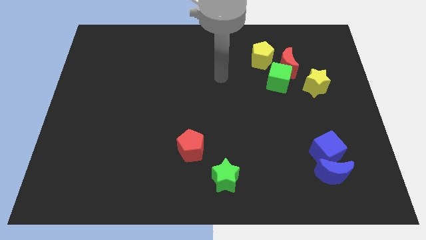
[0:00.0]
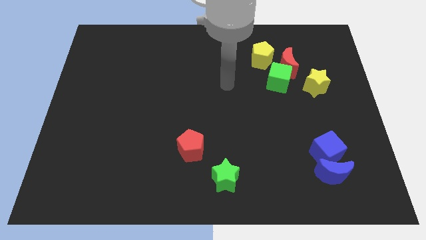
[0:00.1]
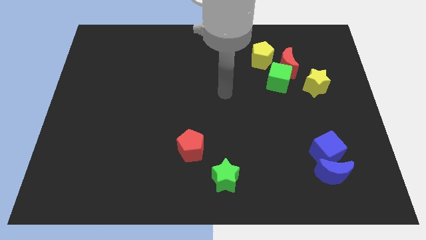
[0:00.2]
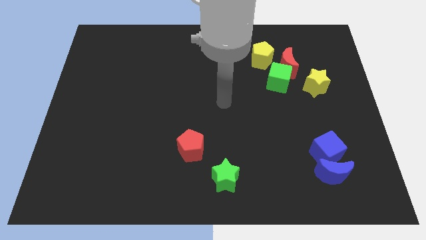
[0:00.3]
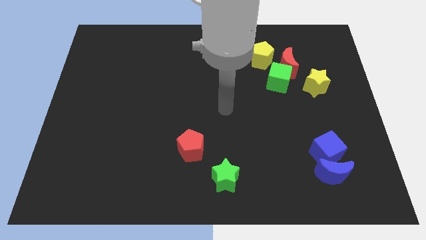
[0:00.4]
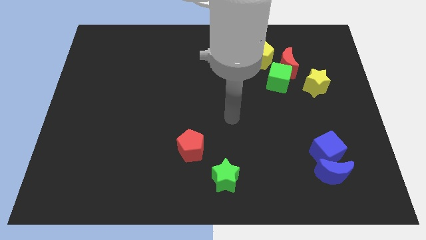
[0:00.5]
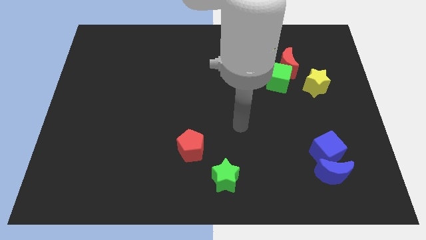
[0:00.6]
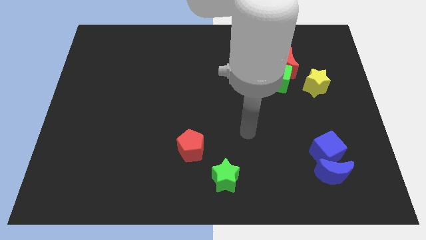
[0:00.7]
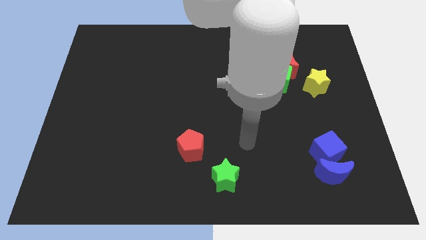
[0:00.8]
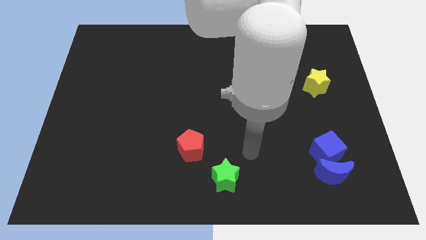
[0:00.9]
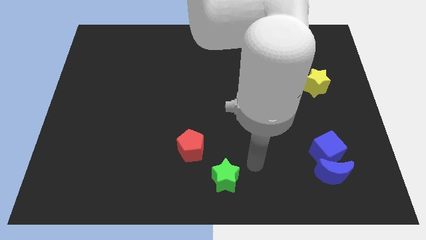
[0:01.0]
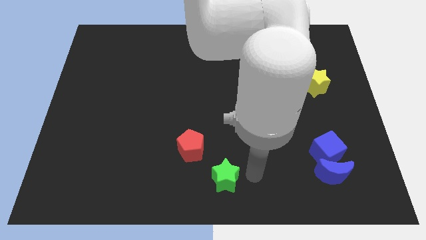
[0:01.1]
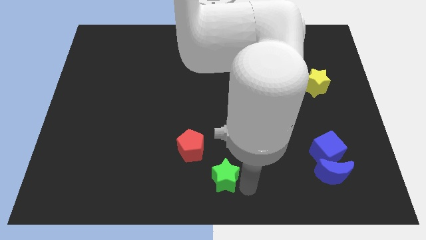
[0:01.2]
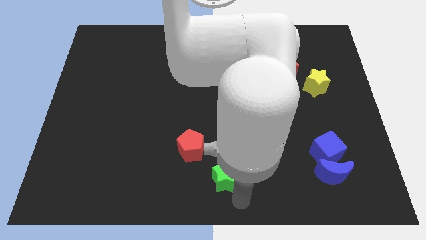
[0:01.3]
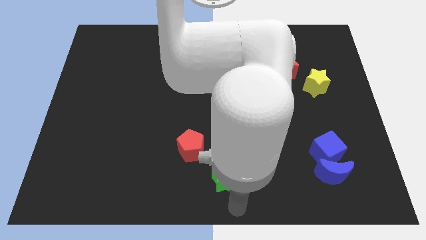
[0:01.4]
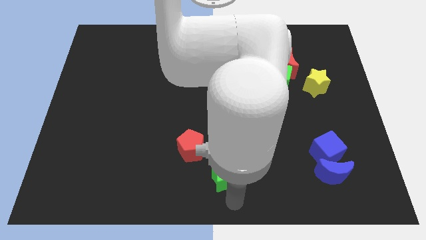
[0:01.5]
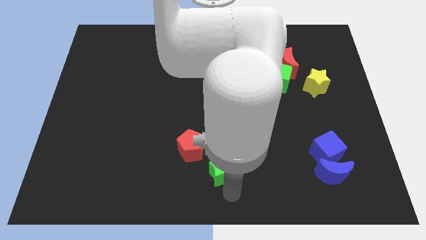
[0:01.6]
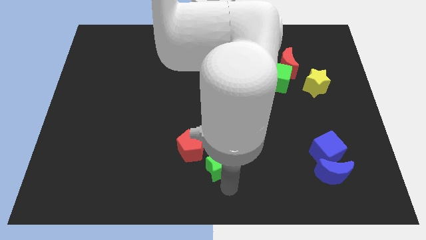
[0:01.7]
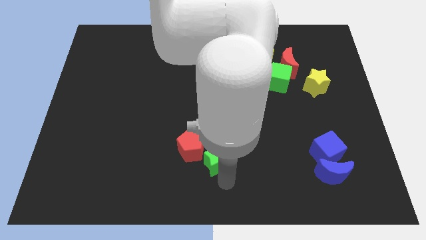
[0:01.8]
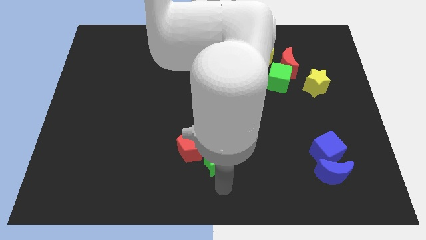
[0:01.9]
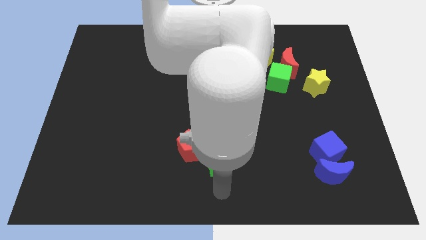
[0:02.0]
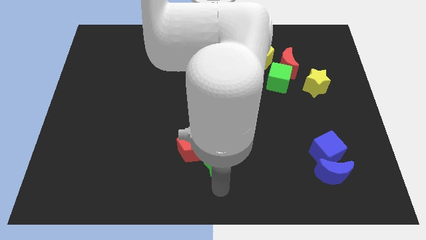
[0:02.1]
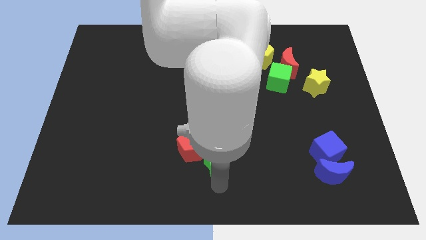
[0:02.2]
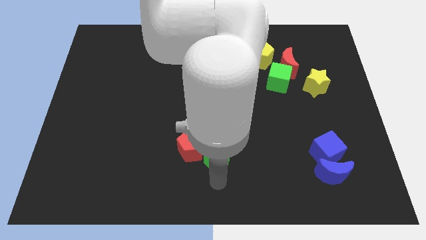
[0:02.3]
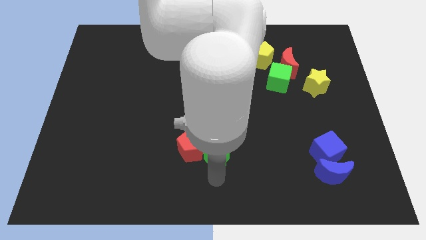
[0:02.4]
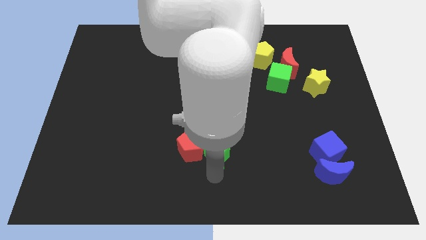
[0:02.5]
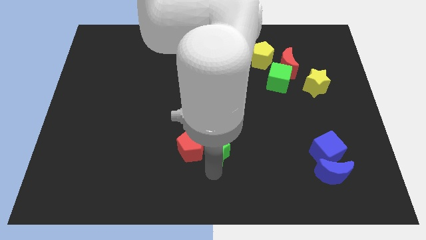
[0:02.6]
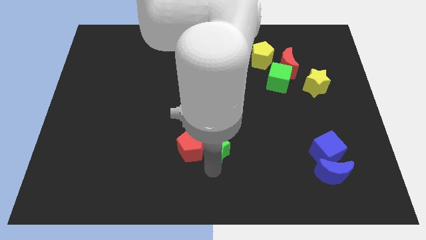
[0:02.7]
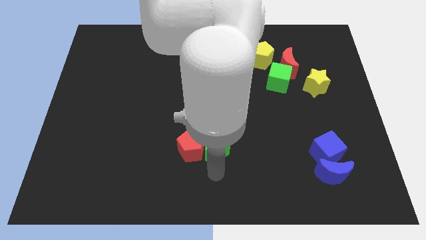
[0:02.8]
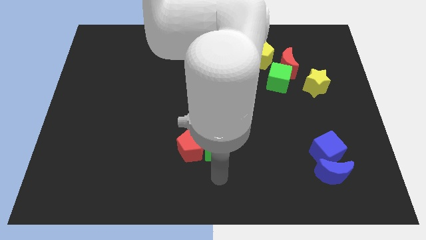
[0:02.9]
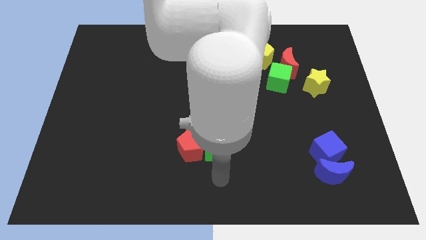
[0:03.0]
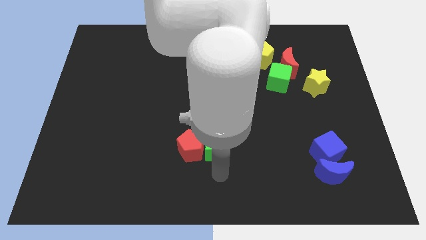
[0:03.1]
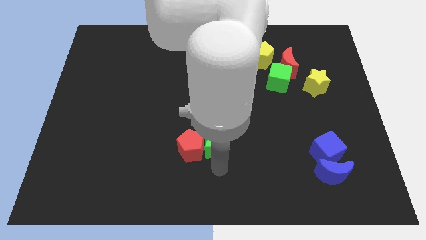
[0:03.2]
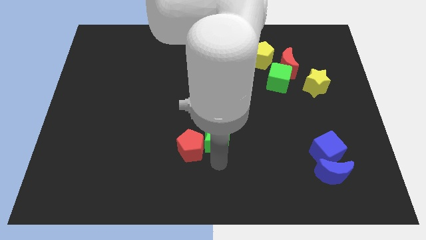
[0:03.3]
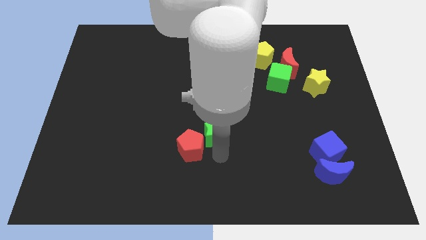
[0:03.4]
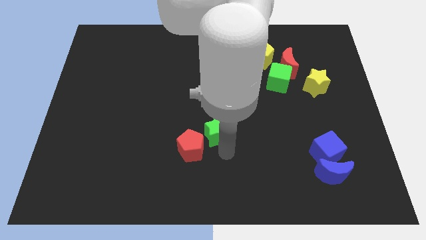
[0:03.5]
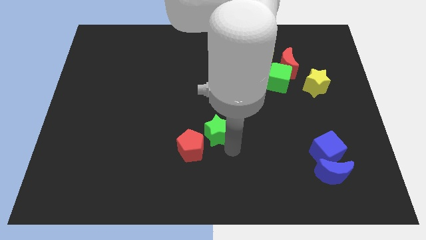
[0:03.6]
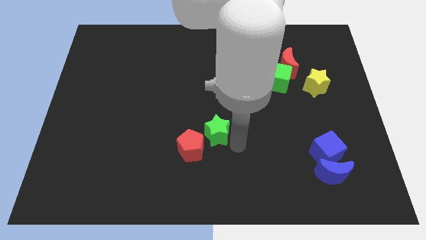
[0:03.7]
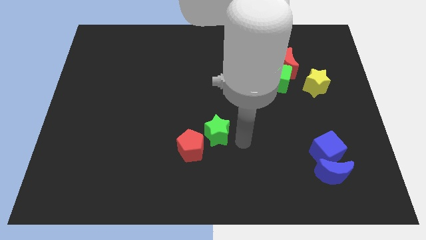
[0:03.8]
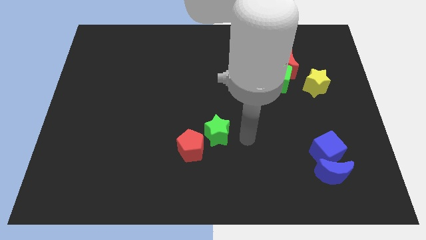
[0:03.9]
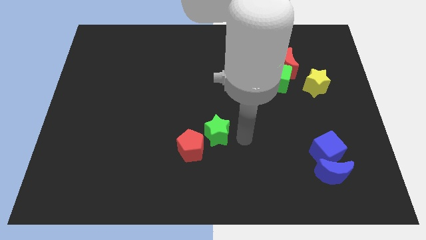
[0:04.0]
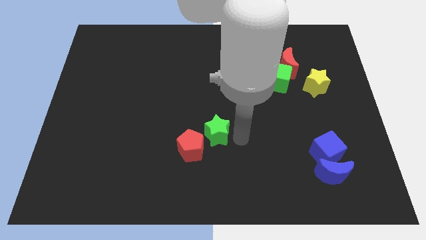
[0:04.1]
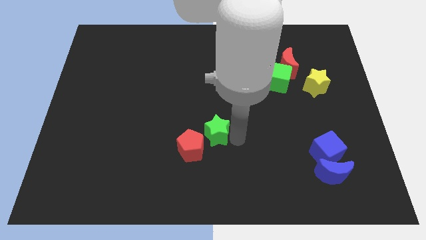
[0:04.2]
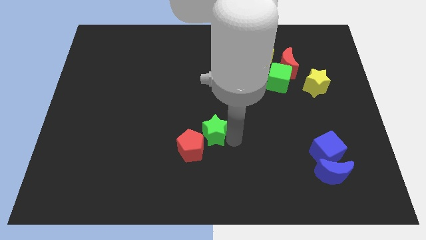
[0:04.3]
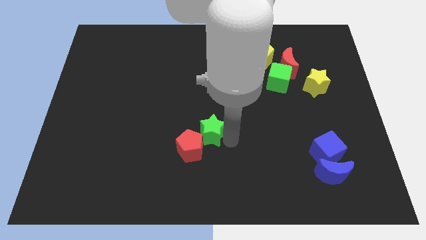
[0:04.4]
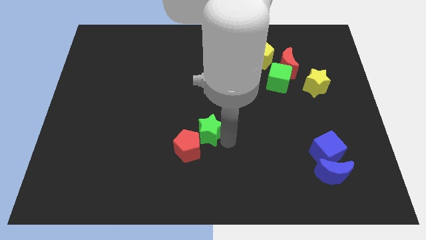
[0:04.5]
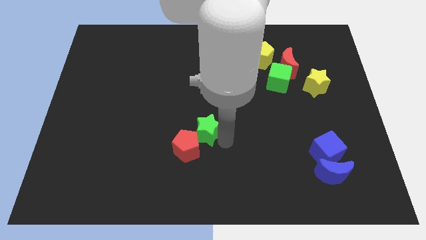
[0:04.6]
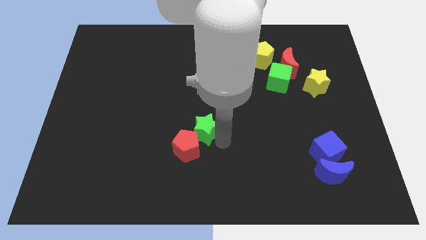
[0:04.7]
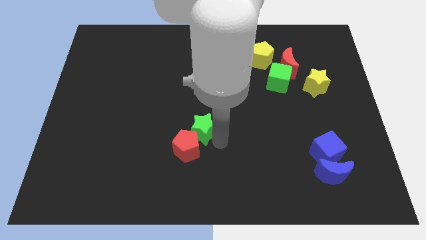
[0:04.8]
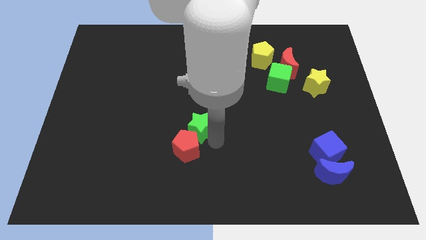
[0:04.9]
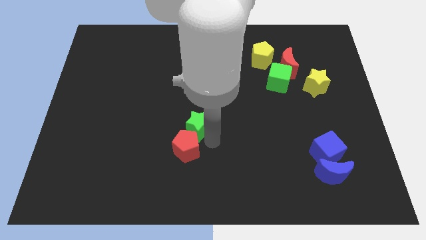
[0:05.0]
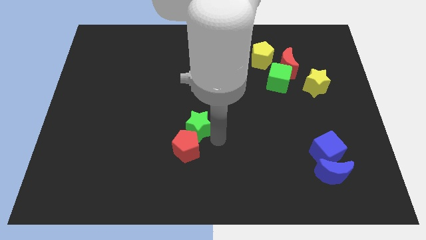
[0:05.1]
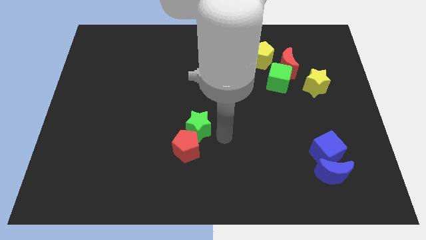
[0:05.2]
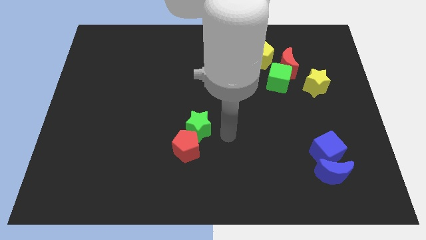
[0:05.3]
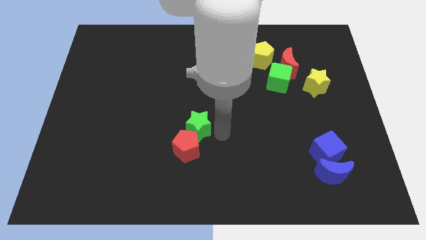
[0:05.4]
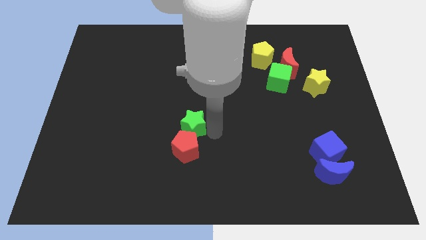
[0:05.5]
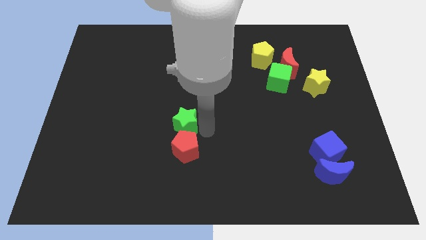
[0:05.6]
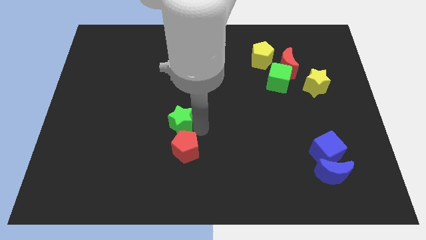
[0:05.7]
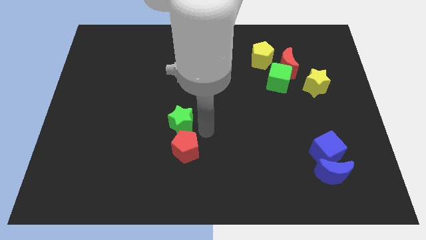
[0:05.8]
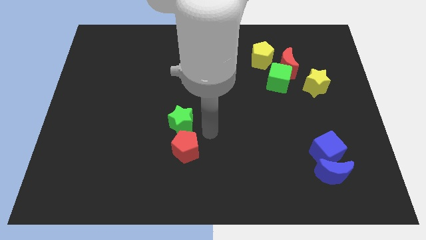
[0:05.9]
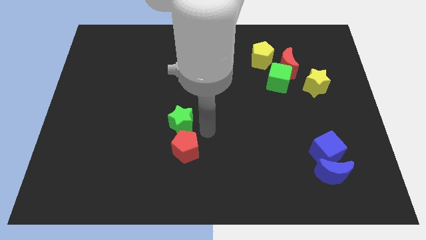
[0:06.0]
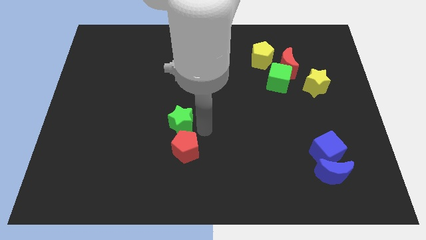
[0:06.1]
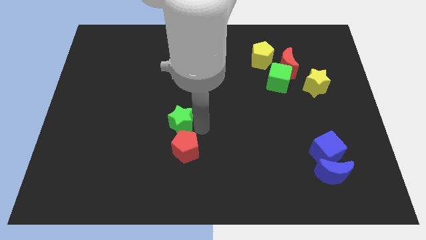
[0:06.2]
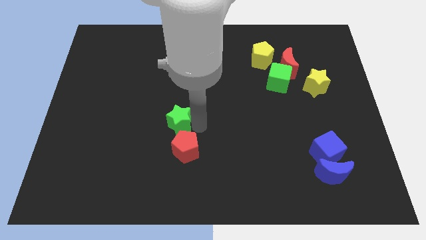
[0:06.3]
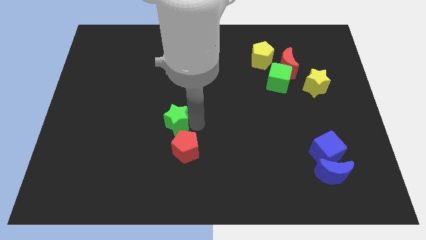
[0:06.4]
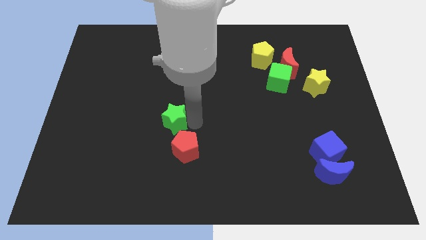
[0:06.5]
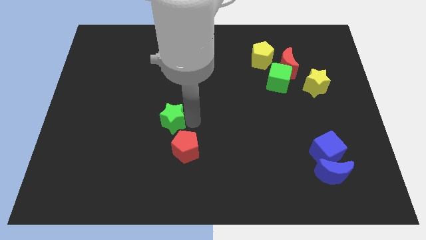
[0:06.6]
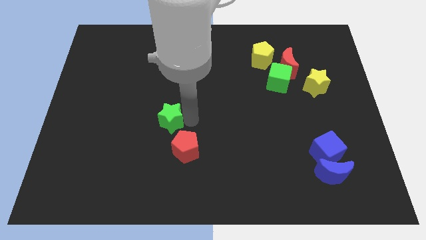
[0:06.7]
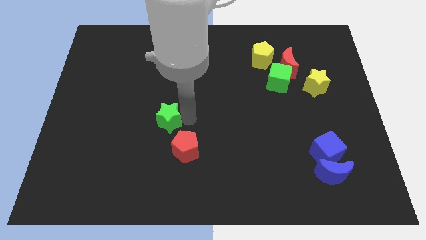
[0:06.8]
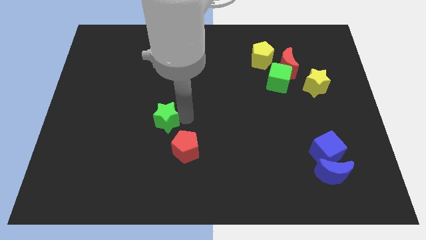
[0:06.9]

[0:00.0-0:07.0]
push the green star upwards and left diagonally

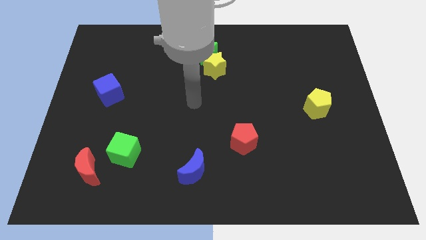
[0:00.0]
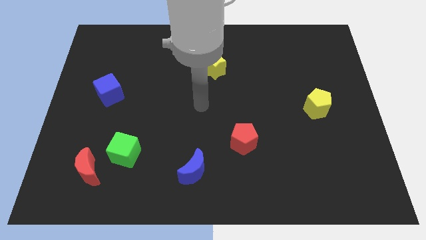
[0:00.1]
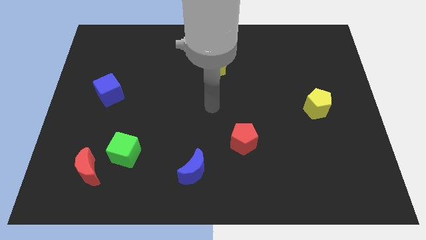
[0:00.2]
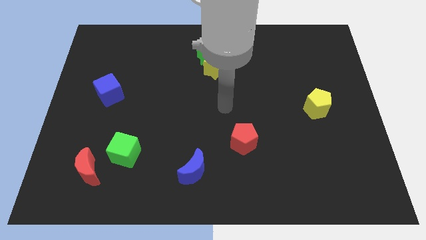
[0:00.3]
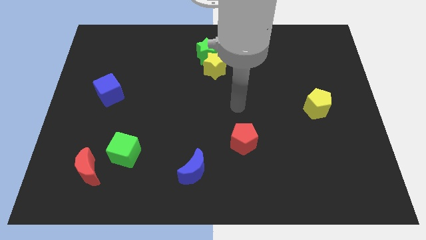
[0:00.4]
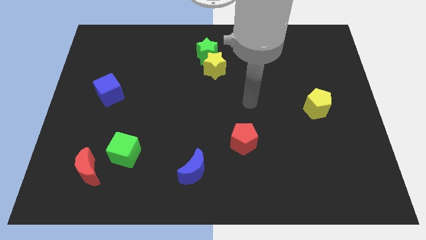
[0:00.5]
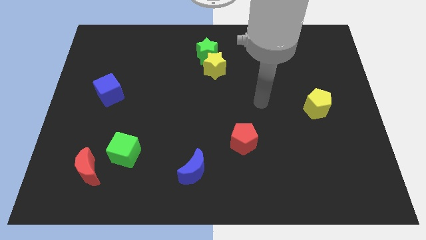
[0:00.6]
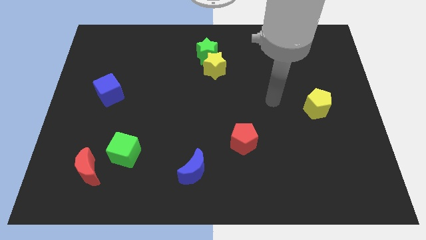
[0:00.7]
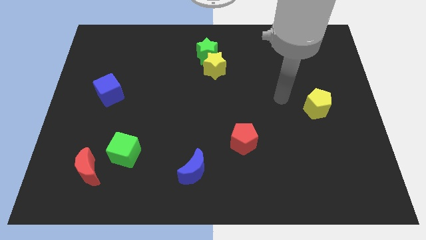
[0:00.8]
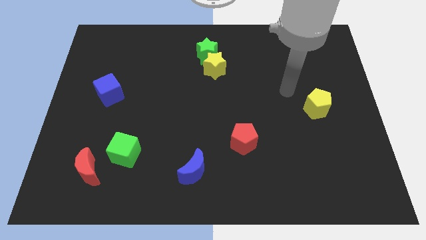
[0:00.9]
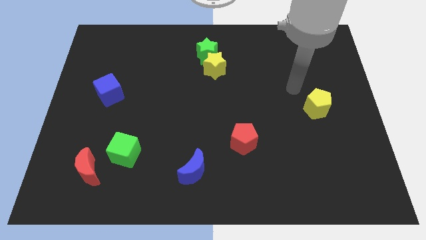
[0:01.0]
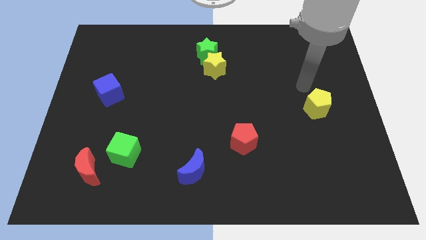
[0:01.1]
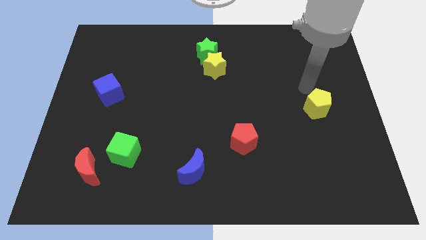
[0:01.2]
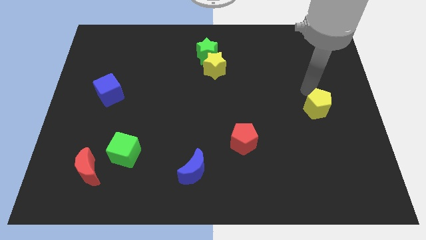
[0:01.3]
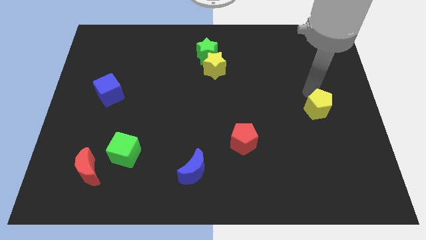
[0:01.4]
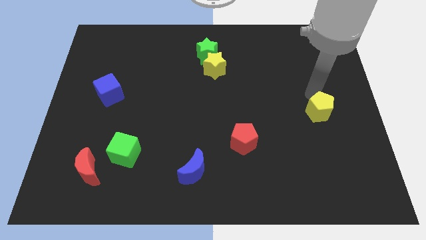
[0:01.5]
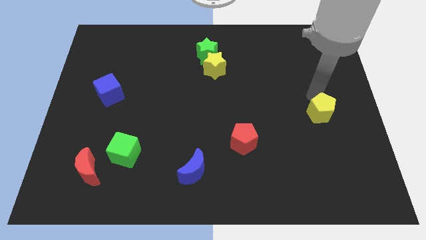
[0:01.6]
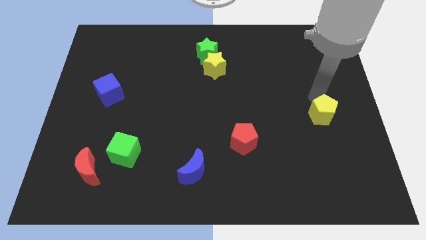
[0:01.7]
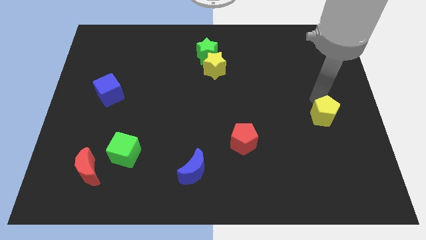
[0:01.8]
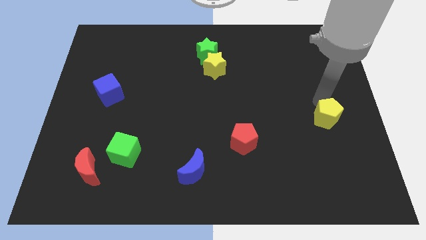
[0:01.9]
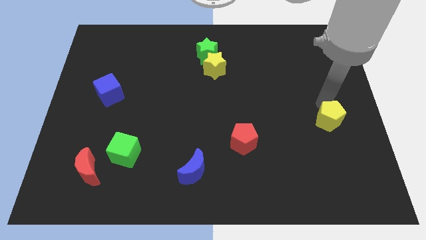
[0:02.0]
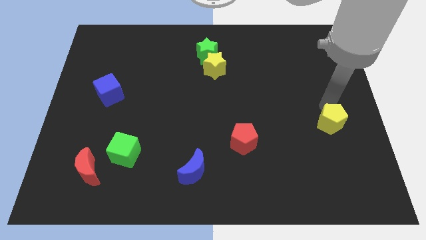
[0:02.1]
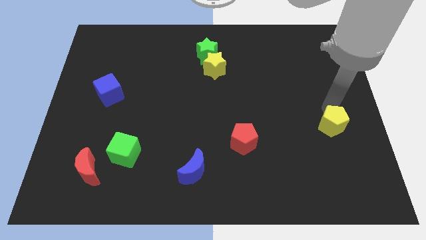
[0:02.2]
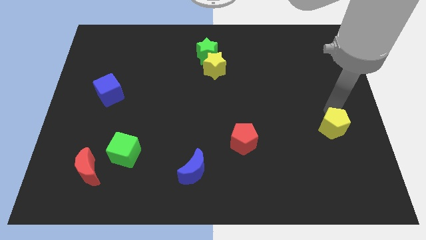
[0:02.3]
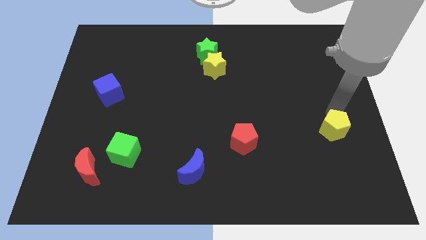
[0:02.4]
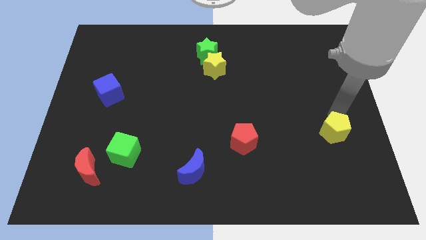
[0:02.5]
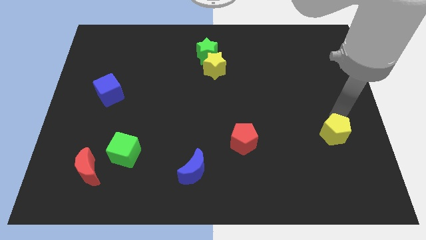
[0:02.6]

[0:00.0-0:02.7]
push the yellow pentagon down slightly
